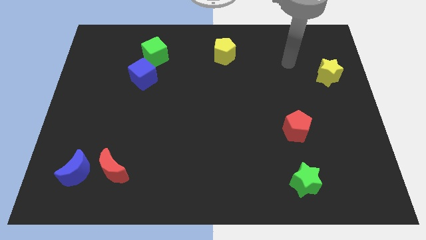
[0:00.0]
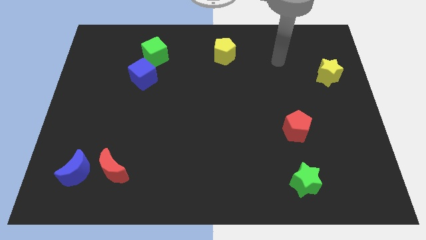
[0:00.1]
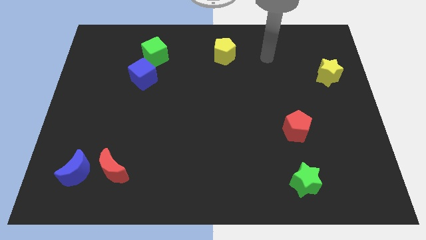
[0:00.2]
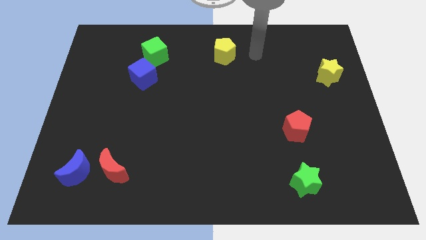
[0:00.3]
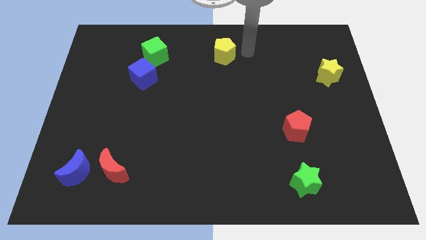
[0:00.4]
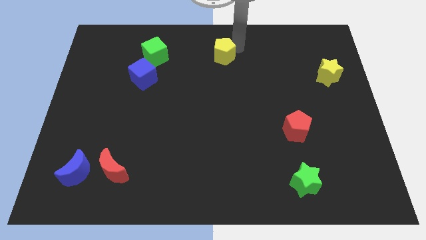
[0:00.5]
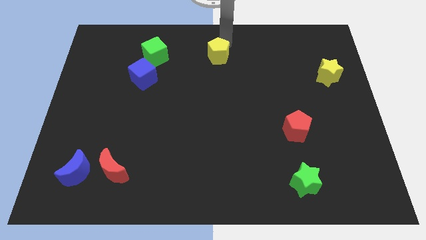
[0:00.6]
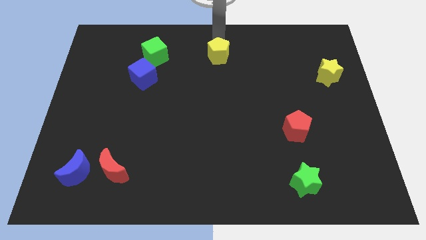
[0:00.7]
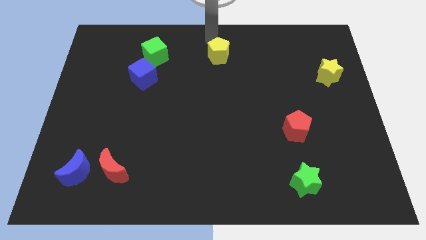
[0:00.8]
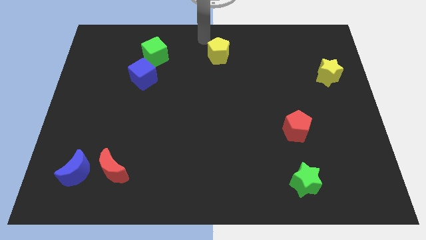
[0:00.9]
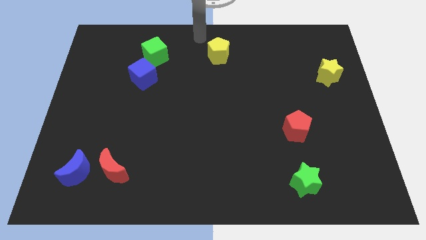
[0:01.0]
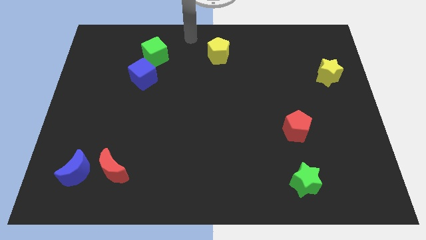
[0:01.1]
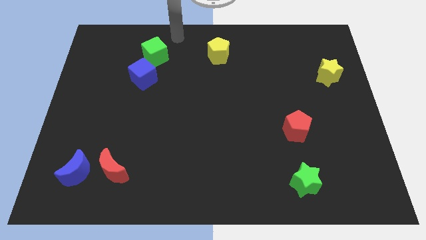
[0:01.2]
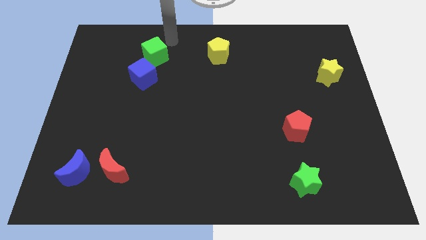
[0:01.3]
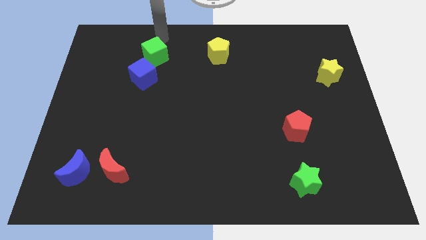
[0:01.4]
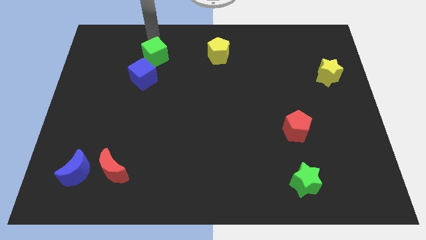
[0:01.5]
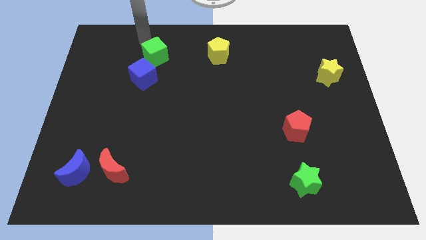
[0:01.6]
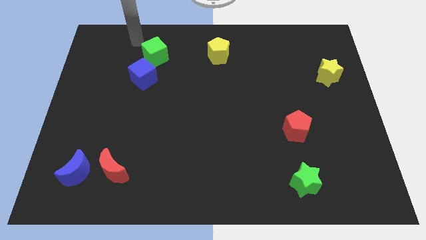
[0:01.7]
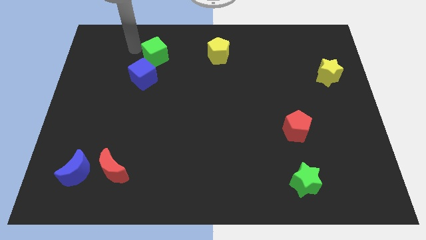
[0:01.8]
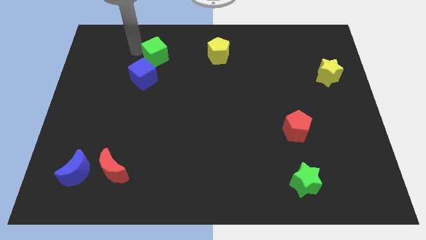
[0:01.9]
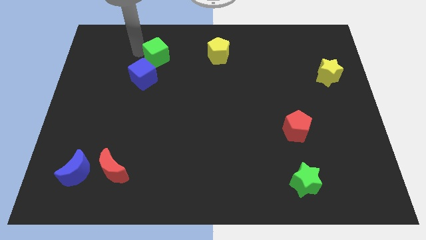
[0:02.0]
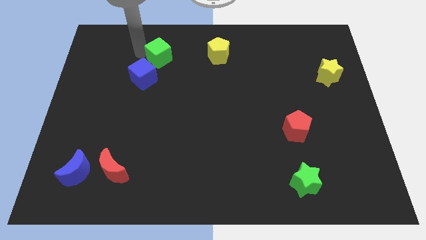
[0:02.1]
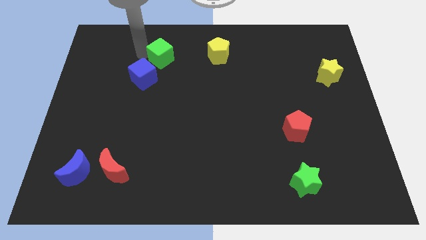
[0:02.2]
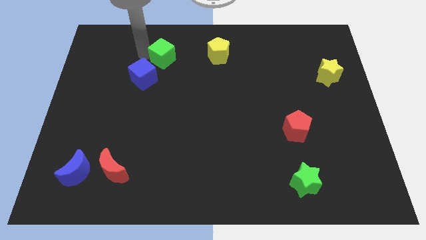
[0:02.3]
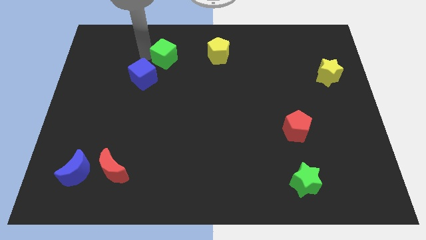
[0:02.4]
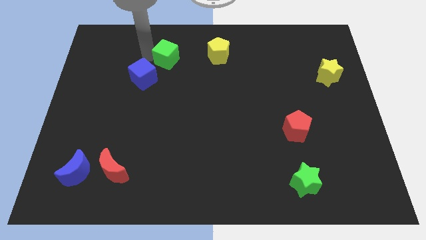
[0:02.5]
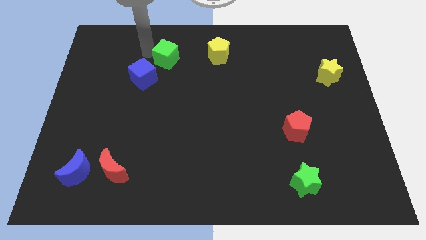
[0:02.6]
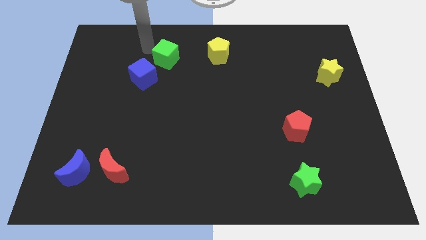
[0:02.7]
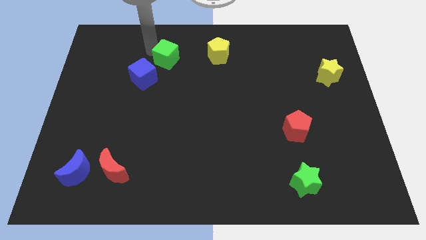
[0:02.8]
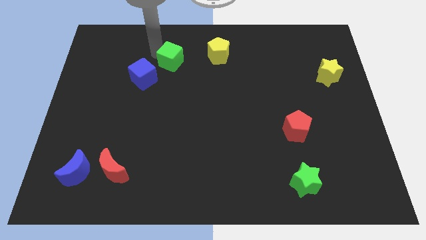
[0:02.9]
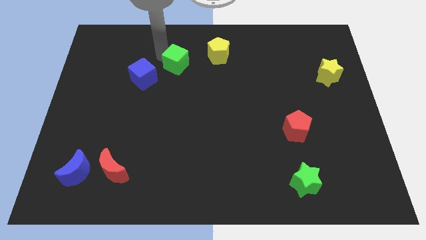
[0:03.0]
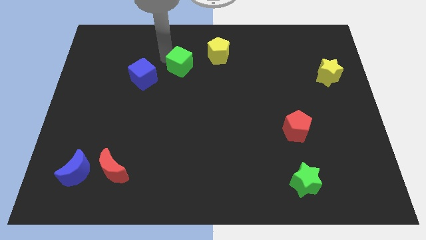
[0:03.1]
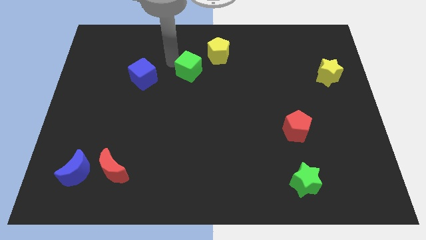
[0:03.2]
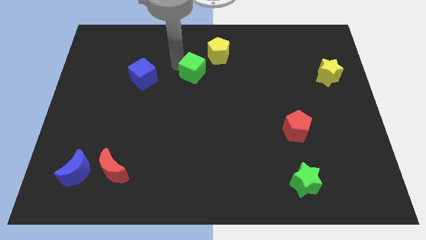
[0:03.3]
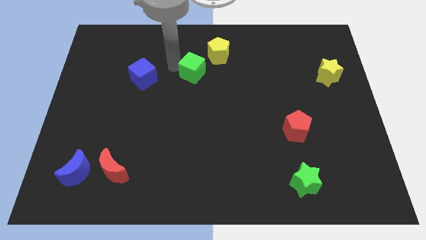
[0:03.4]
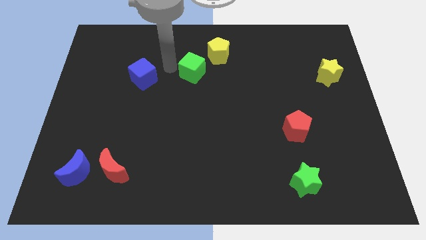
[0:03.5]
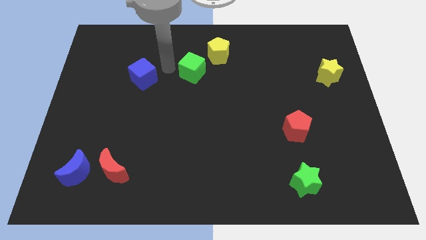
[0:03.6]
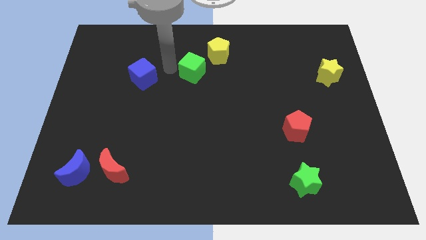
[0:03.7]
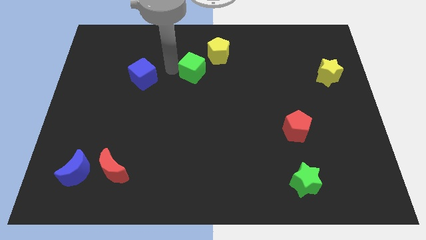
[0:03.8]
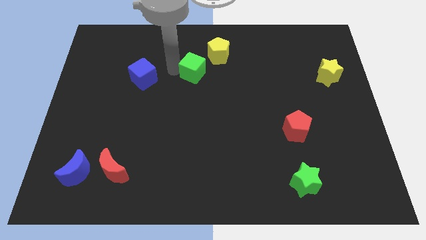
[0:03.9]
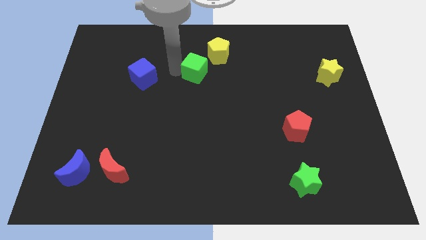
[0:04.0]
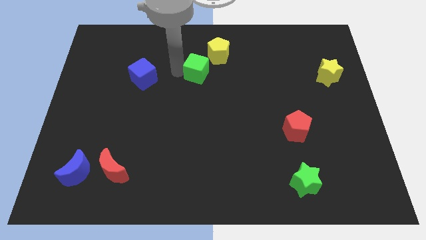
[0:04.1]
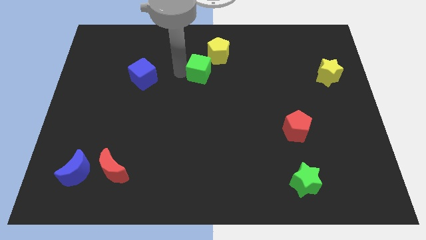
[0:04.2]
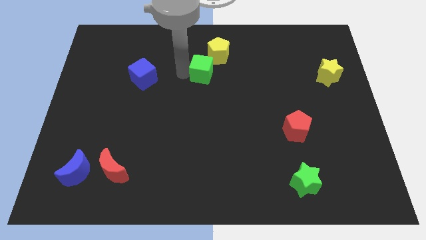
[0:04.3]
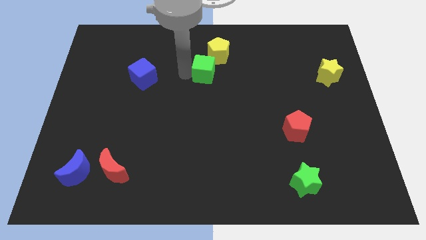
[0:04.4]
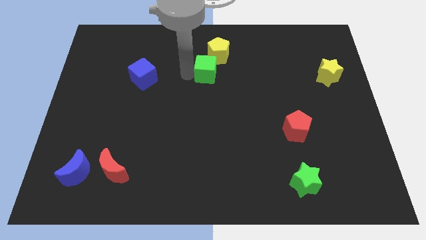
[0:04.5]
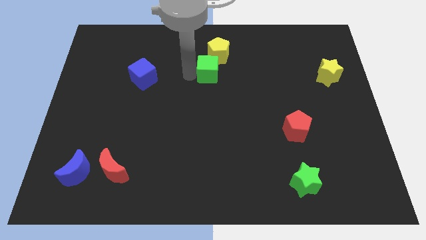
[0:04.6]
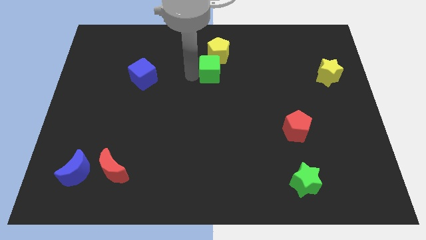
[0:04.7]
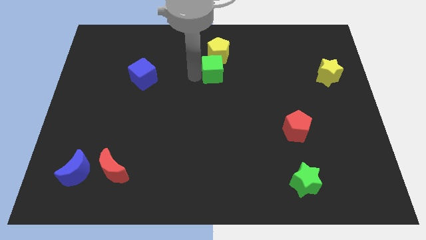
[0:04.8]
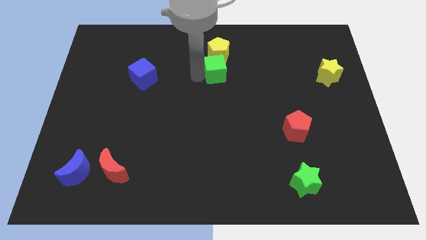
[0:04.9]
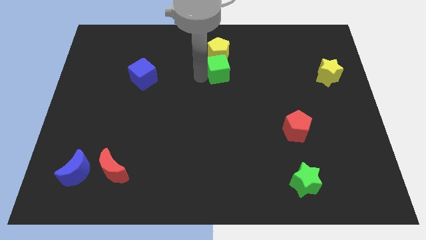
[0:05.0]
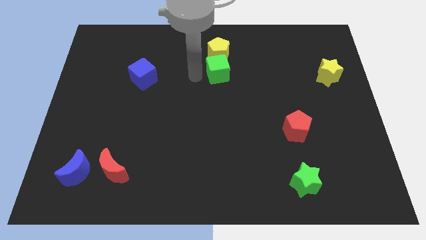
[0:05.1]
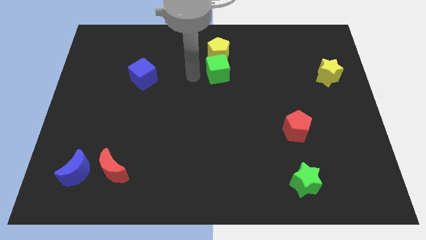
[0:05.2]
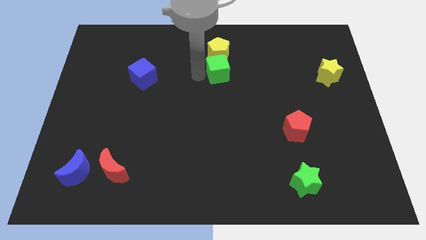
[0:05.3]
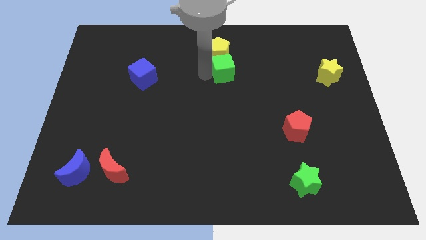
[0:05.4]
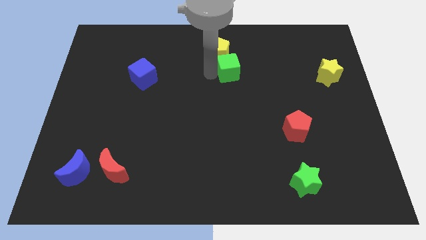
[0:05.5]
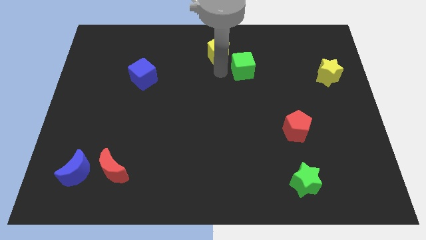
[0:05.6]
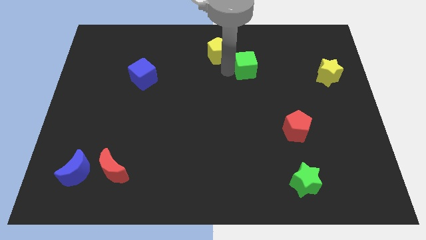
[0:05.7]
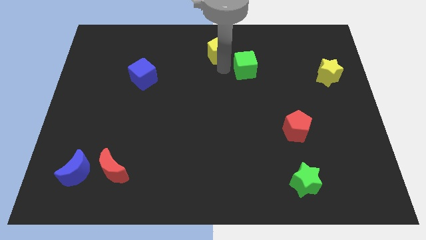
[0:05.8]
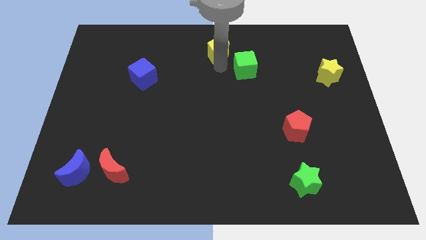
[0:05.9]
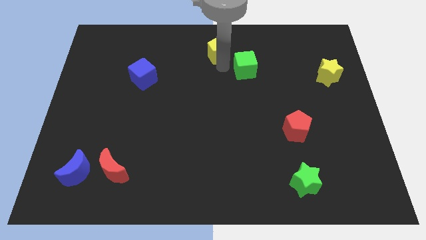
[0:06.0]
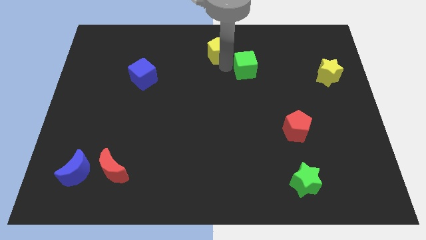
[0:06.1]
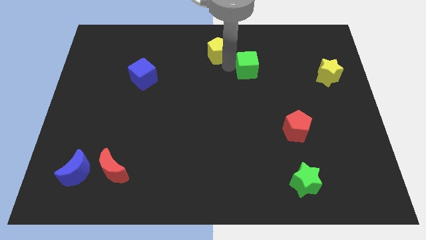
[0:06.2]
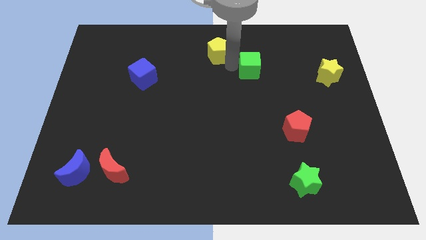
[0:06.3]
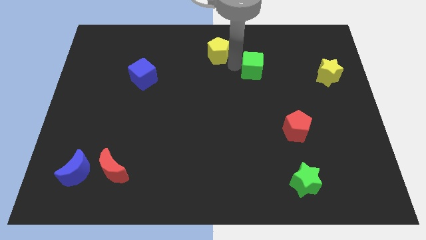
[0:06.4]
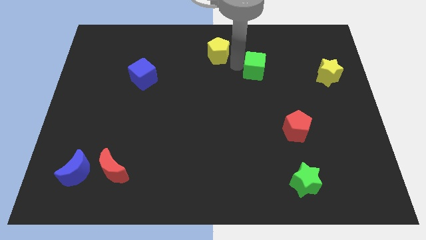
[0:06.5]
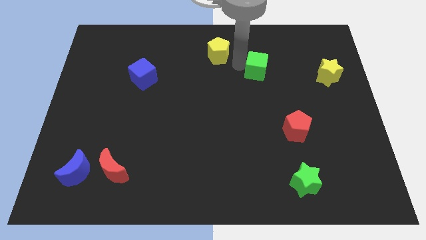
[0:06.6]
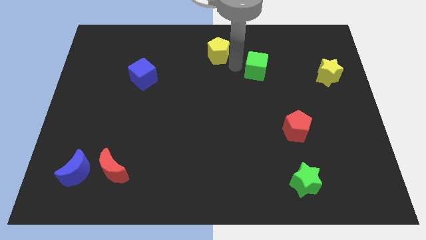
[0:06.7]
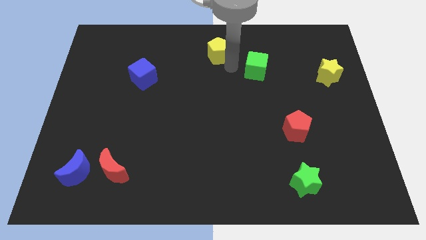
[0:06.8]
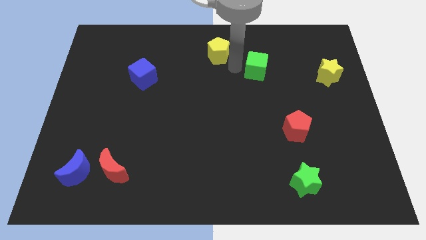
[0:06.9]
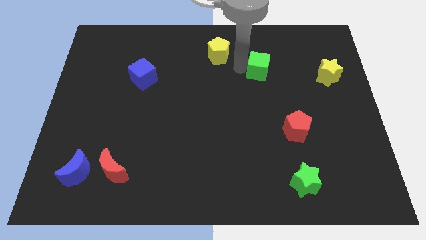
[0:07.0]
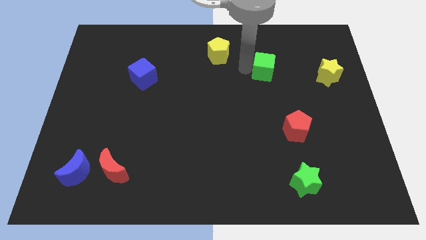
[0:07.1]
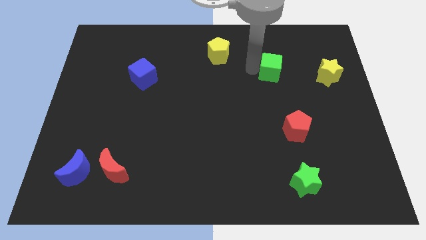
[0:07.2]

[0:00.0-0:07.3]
push the green cube just left of the yellow star

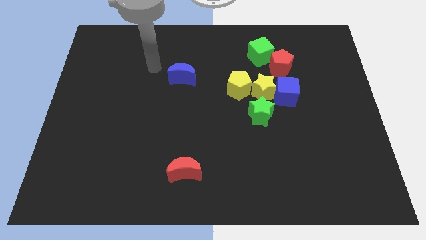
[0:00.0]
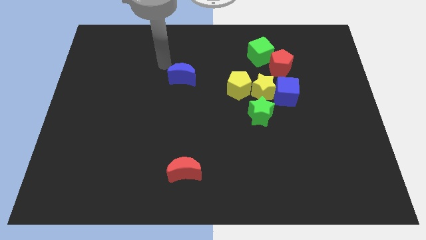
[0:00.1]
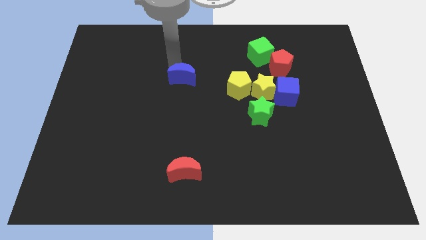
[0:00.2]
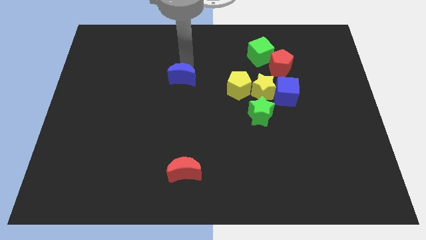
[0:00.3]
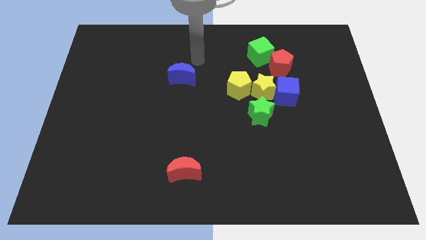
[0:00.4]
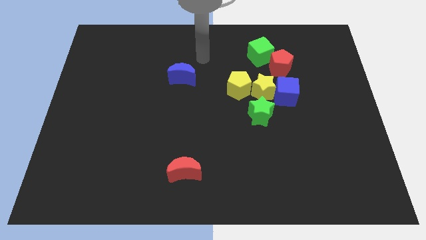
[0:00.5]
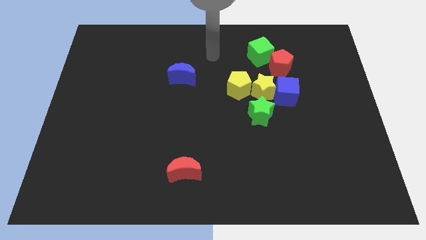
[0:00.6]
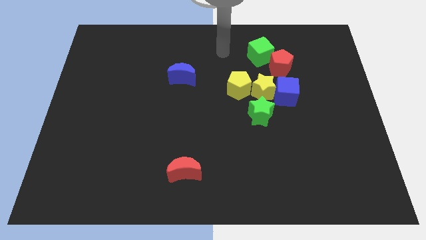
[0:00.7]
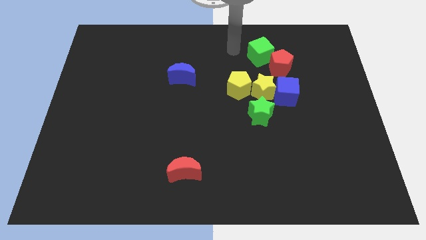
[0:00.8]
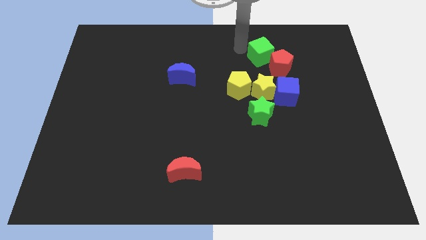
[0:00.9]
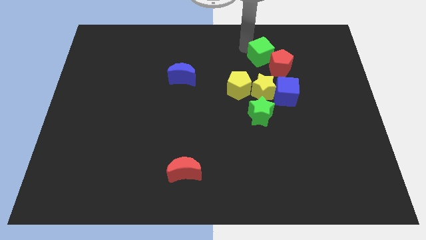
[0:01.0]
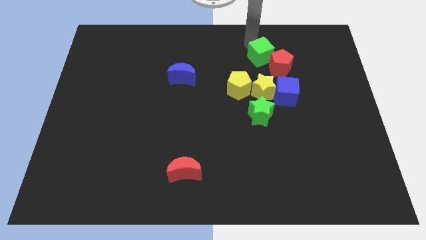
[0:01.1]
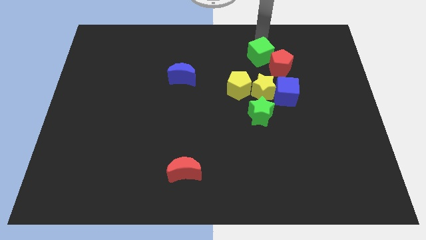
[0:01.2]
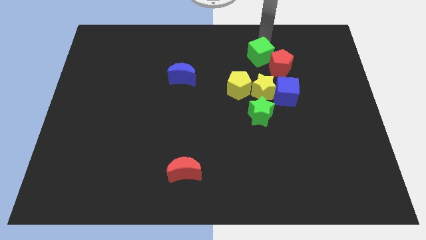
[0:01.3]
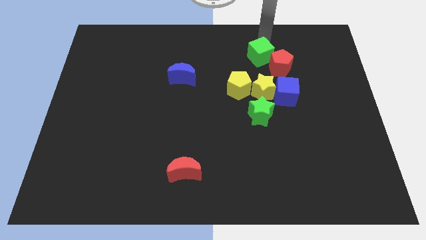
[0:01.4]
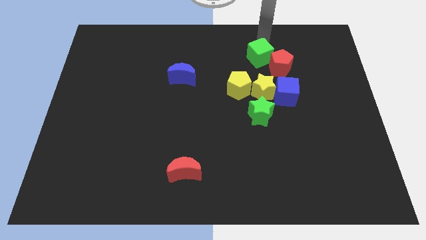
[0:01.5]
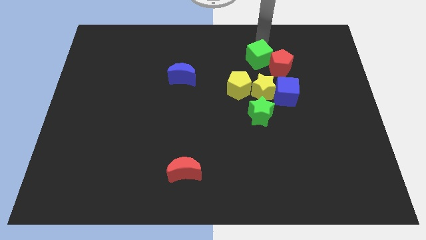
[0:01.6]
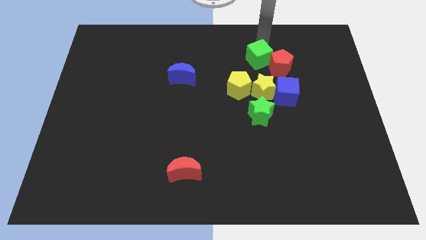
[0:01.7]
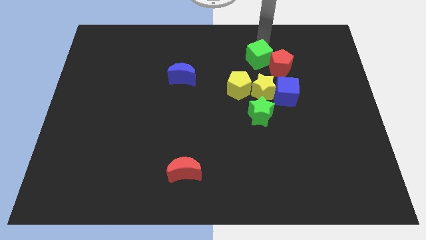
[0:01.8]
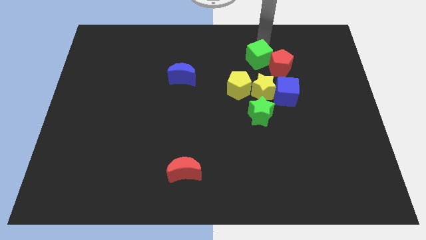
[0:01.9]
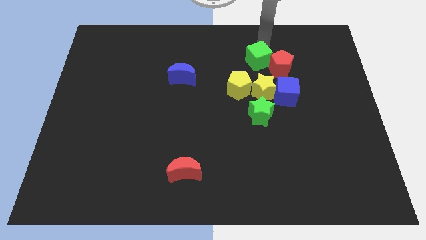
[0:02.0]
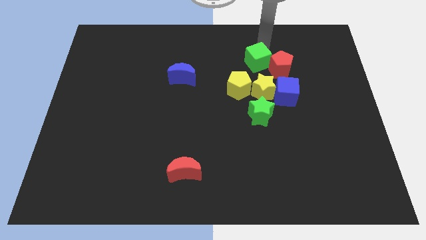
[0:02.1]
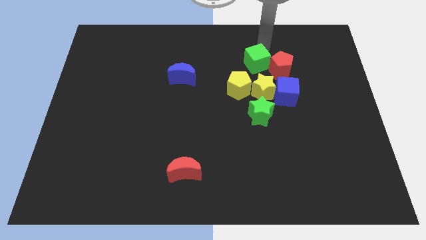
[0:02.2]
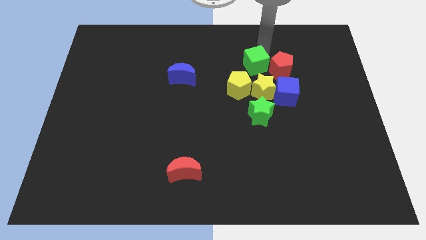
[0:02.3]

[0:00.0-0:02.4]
push the green cube to the top side of the green star
